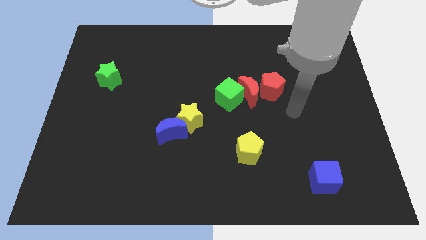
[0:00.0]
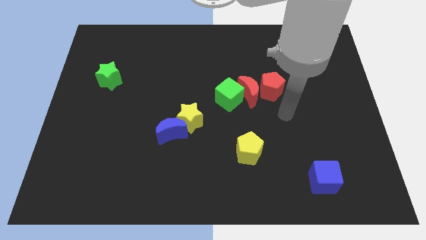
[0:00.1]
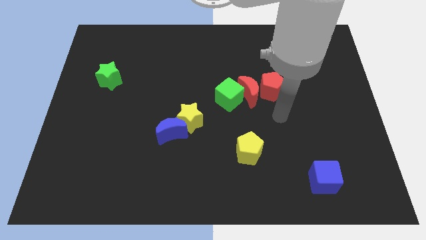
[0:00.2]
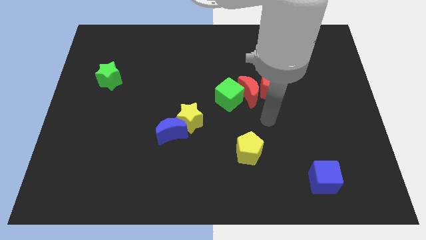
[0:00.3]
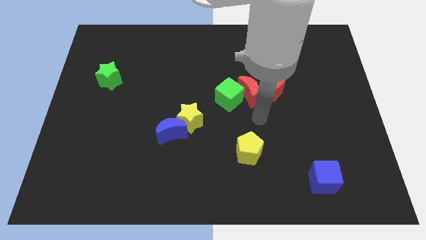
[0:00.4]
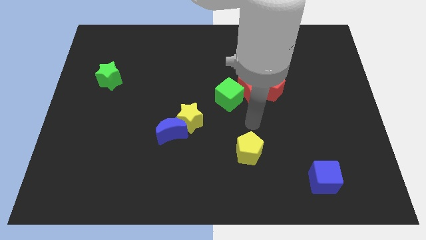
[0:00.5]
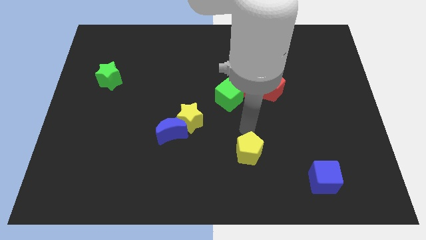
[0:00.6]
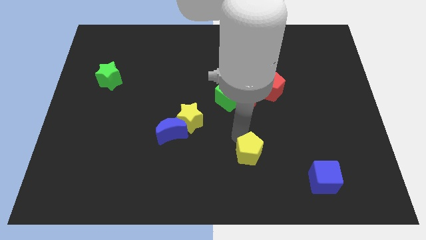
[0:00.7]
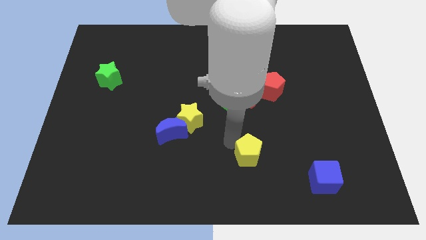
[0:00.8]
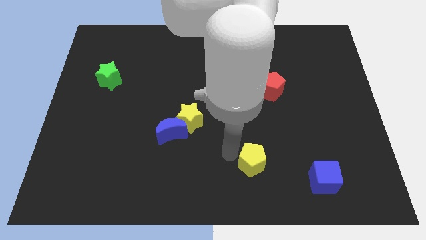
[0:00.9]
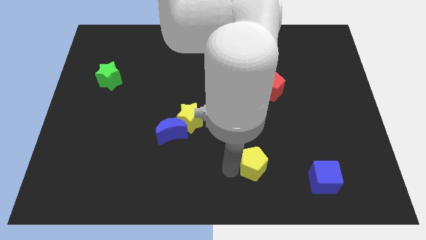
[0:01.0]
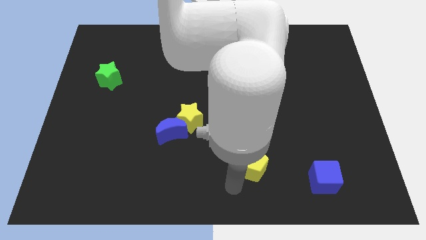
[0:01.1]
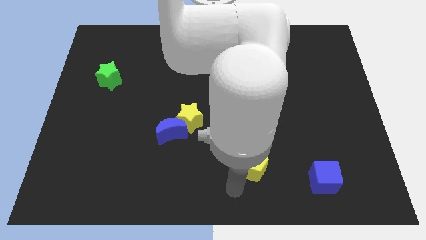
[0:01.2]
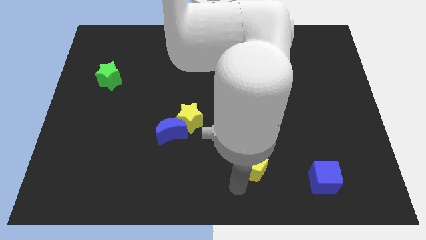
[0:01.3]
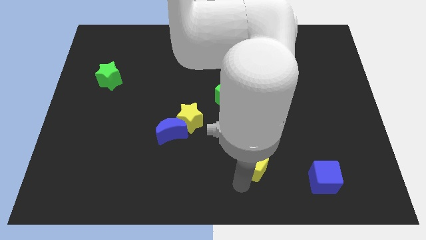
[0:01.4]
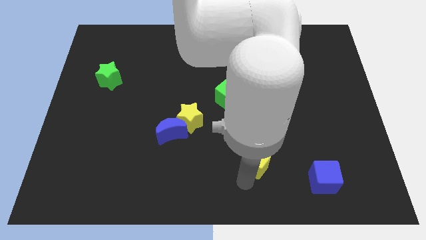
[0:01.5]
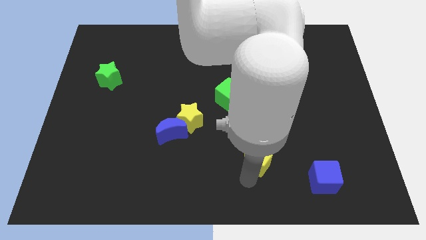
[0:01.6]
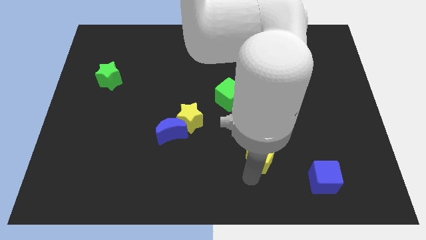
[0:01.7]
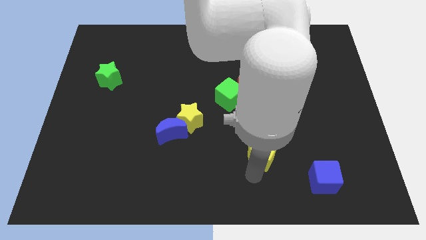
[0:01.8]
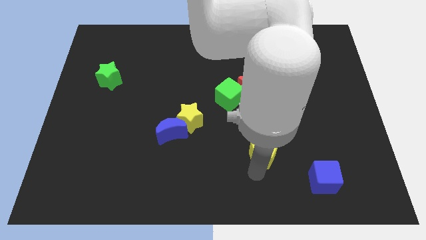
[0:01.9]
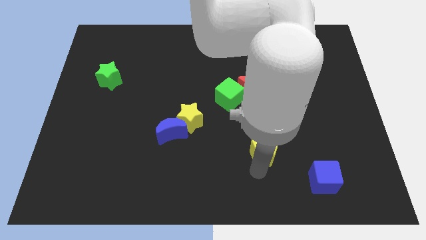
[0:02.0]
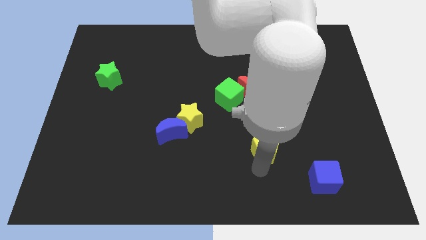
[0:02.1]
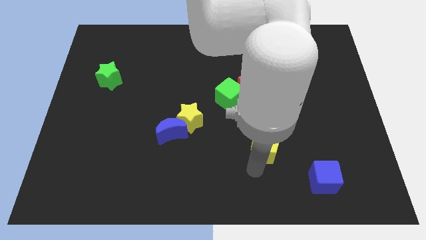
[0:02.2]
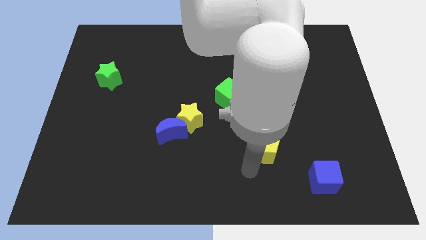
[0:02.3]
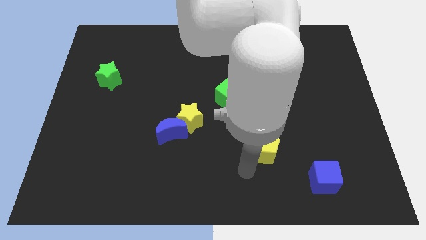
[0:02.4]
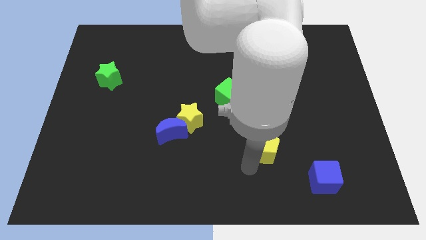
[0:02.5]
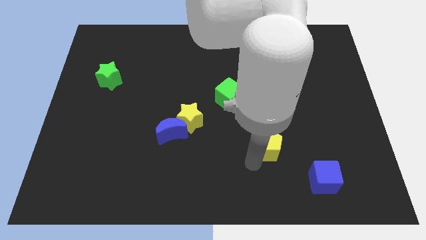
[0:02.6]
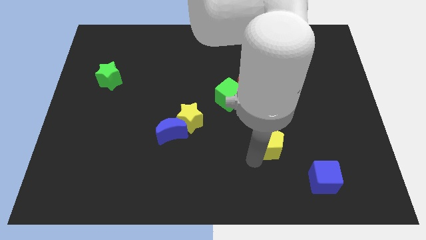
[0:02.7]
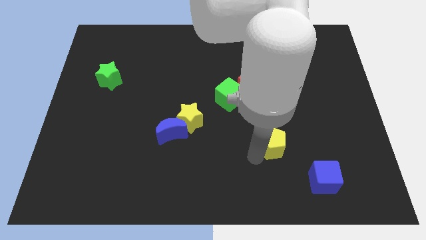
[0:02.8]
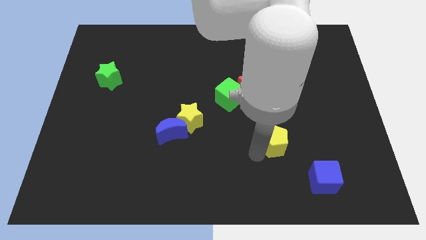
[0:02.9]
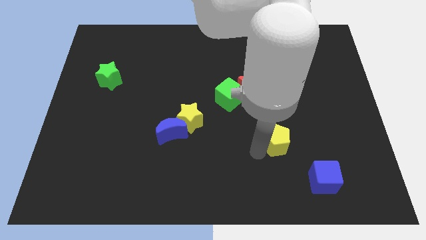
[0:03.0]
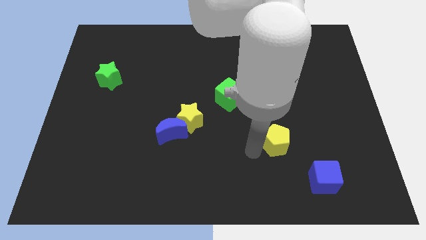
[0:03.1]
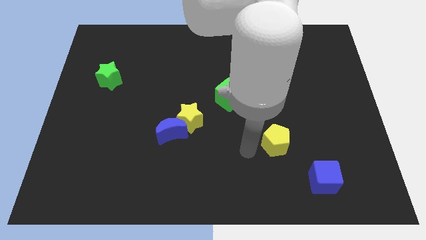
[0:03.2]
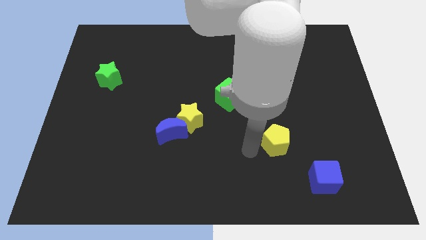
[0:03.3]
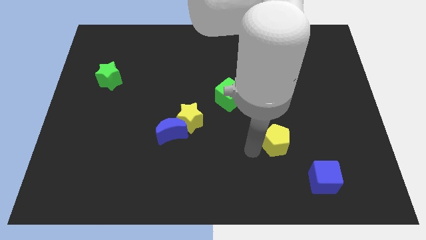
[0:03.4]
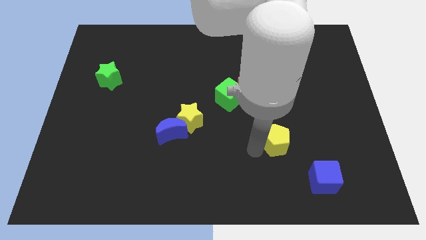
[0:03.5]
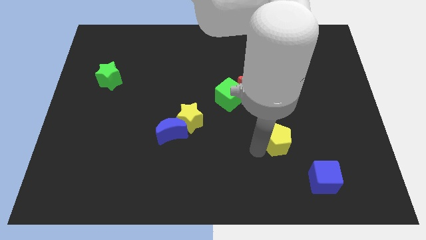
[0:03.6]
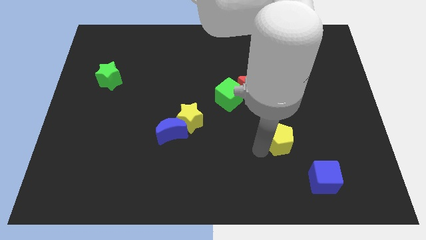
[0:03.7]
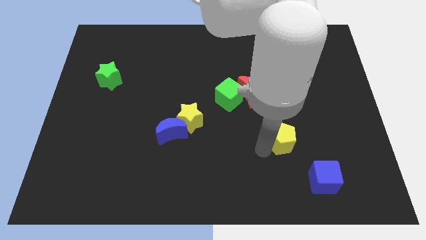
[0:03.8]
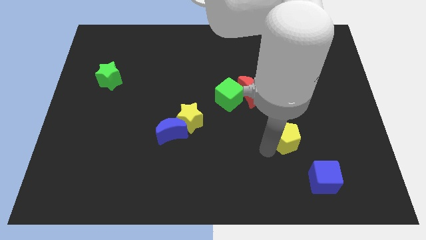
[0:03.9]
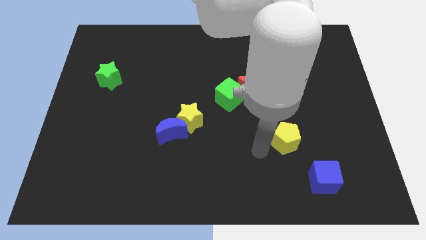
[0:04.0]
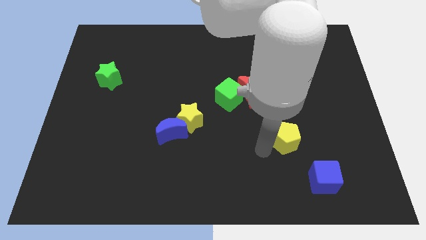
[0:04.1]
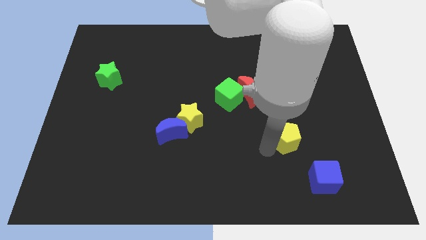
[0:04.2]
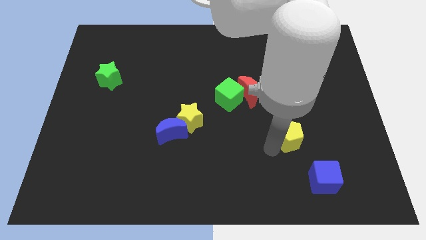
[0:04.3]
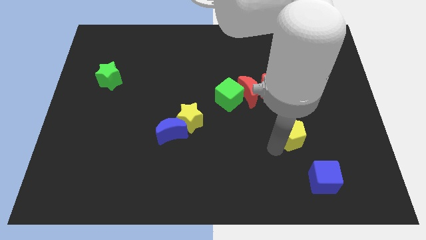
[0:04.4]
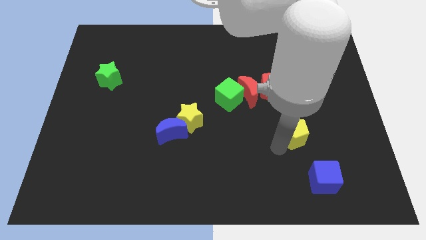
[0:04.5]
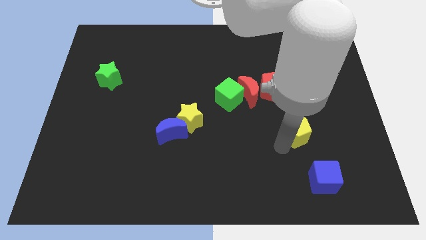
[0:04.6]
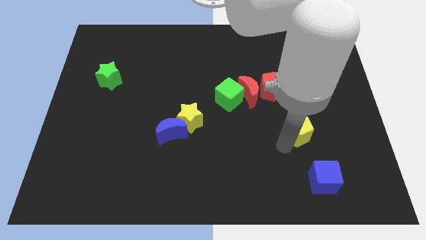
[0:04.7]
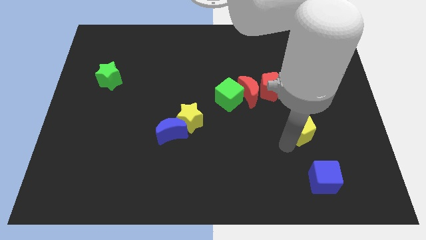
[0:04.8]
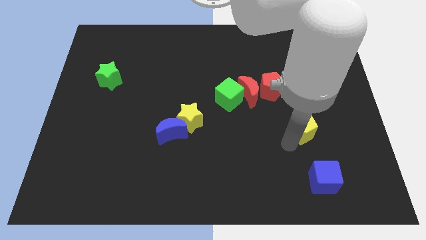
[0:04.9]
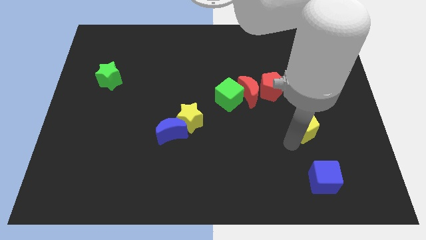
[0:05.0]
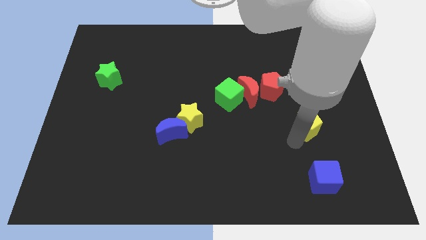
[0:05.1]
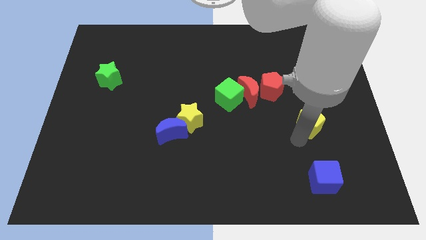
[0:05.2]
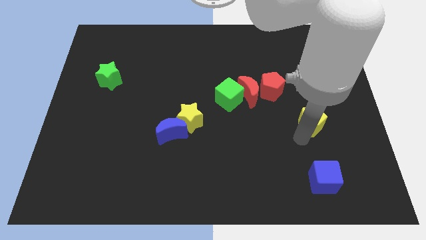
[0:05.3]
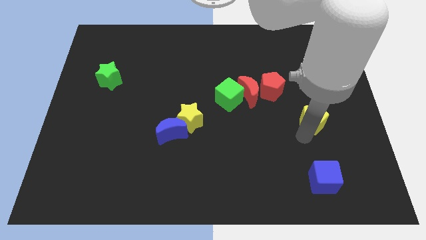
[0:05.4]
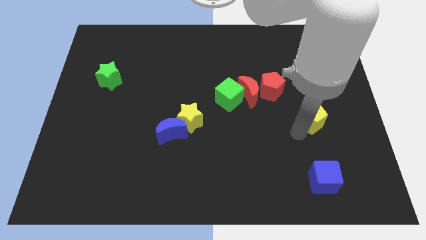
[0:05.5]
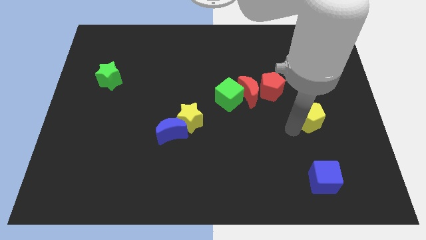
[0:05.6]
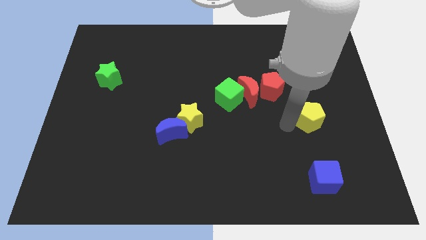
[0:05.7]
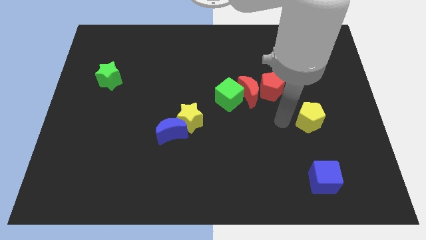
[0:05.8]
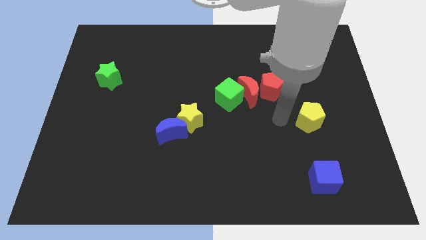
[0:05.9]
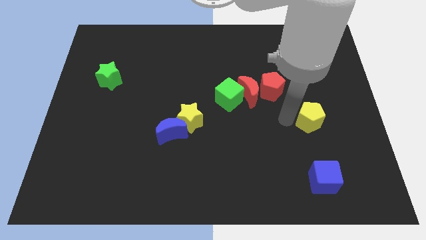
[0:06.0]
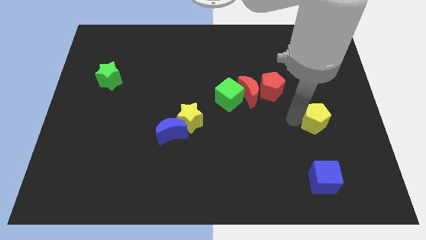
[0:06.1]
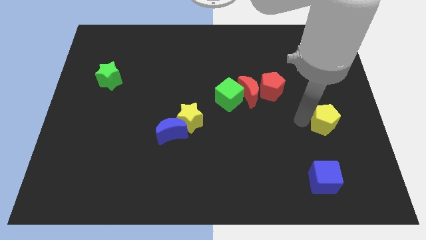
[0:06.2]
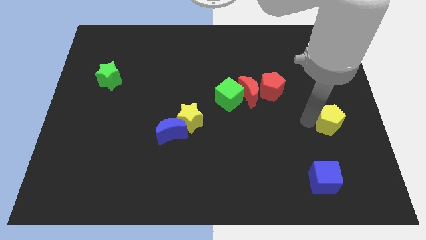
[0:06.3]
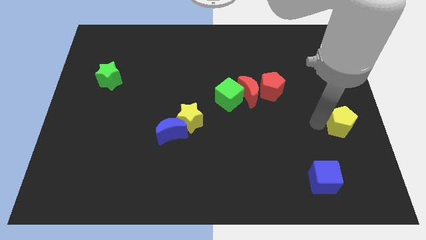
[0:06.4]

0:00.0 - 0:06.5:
move the yellow pentagon to the right side

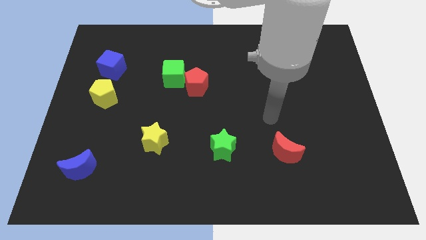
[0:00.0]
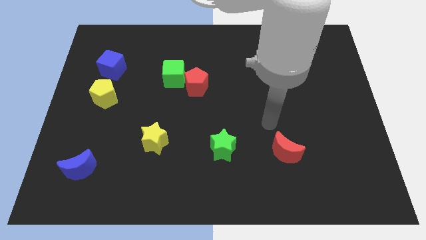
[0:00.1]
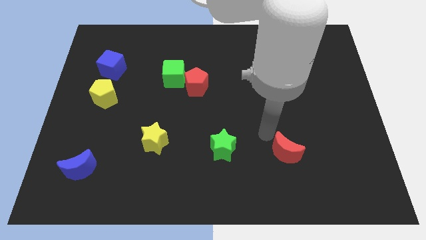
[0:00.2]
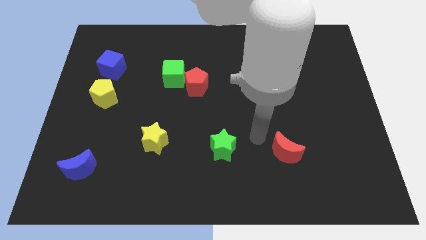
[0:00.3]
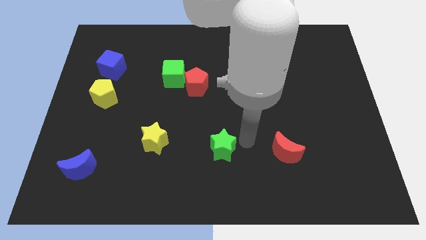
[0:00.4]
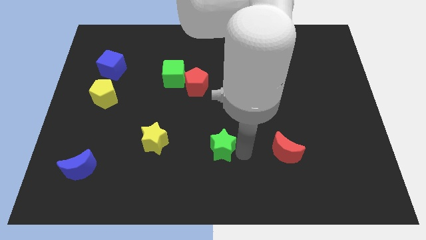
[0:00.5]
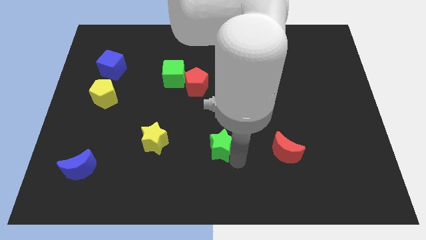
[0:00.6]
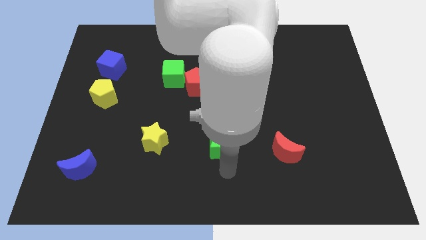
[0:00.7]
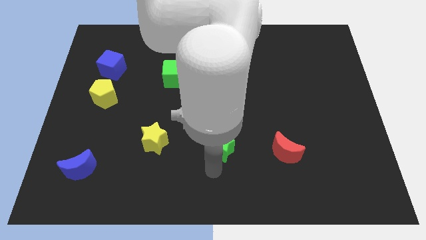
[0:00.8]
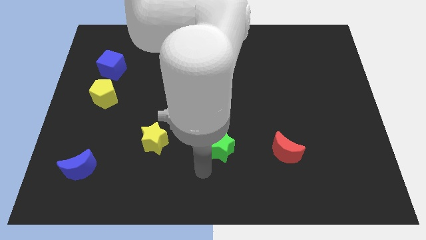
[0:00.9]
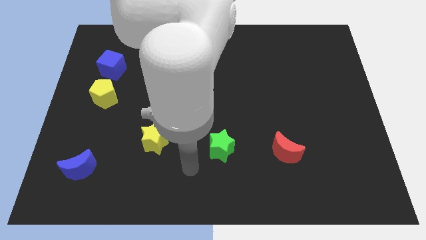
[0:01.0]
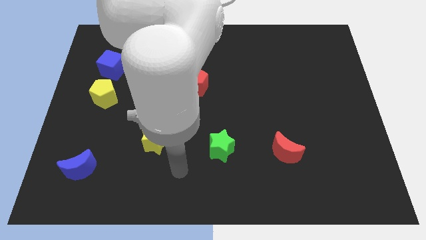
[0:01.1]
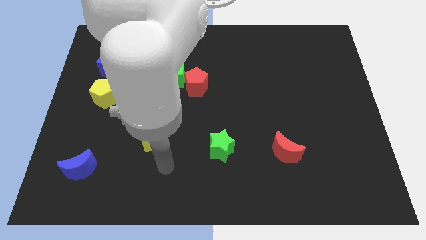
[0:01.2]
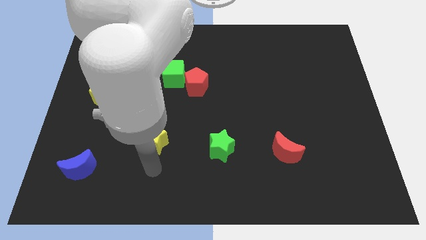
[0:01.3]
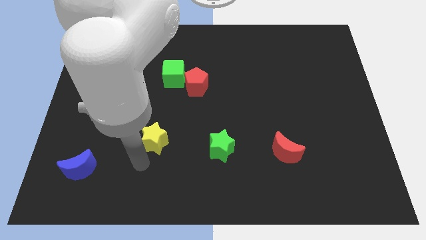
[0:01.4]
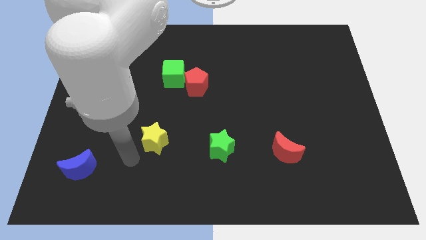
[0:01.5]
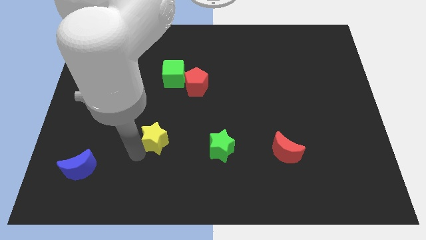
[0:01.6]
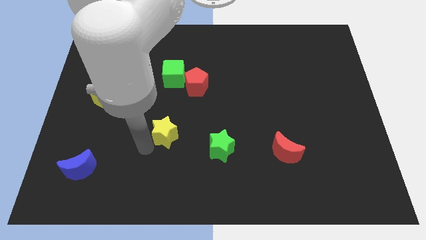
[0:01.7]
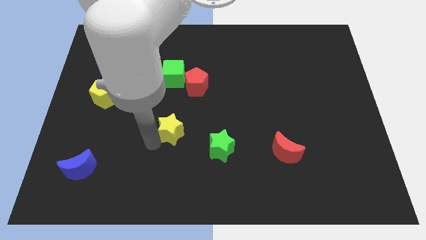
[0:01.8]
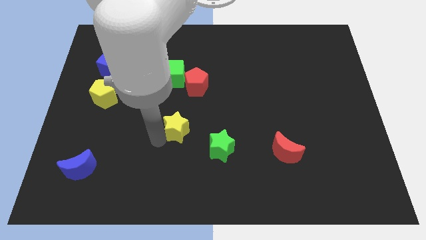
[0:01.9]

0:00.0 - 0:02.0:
push the yellow star to the middle of the board
